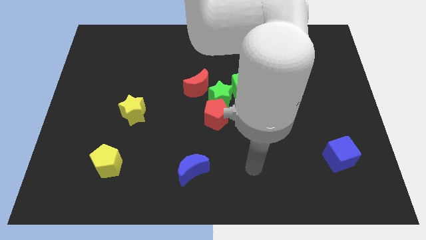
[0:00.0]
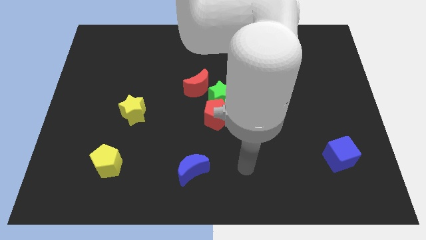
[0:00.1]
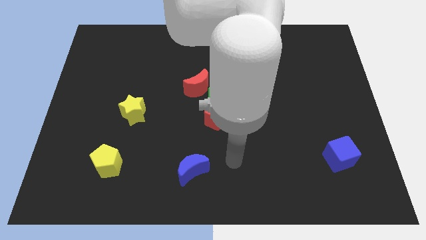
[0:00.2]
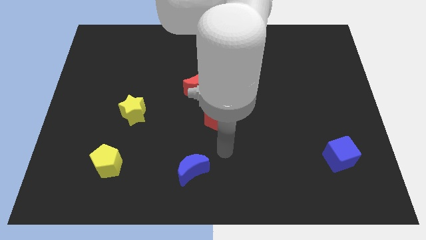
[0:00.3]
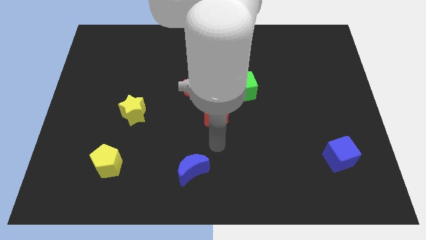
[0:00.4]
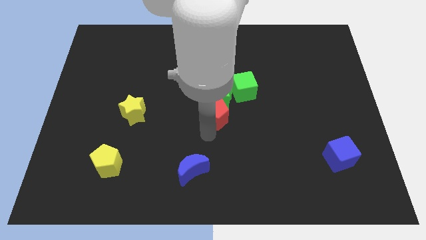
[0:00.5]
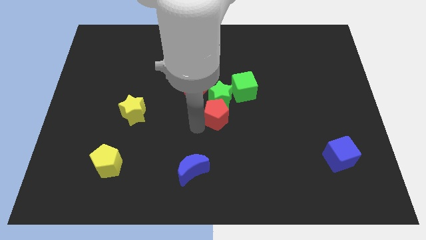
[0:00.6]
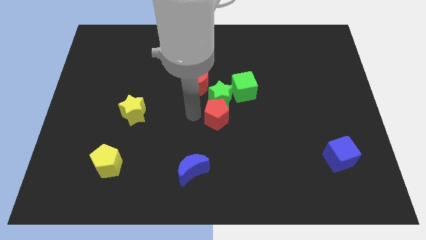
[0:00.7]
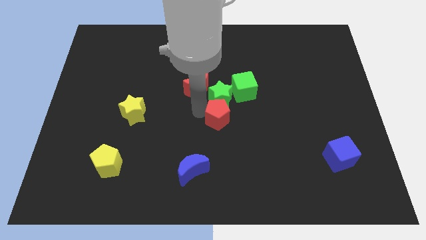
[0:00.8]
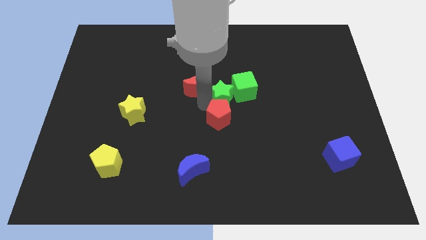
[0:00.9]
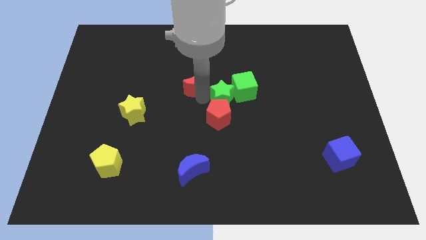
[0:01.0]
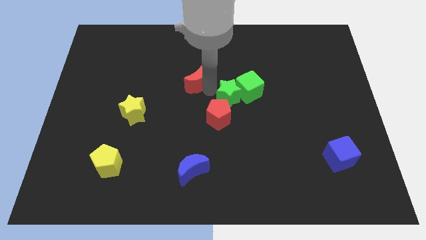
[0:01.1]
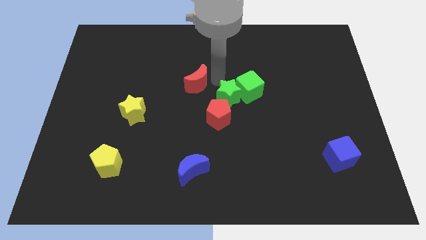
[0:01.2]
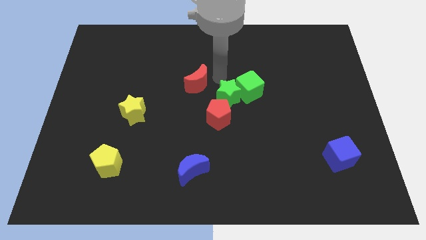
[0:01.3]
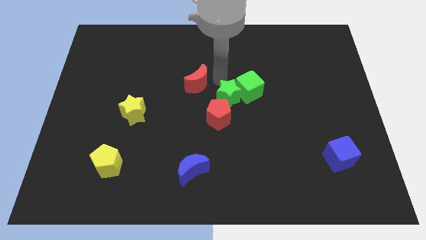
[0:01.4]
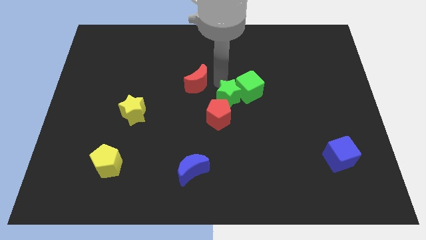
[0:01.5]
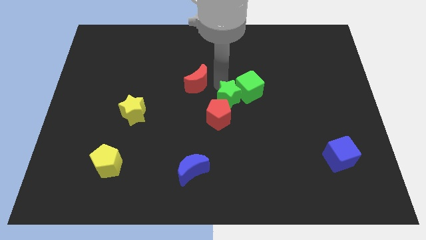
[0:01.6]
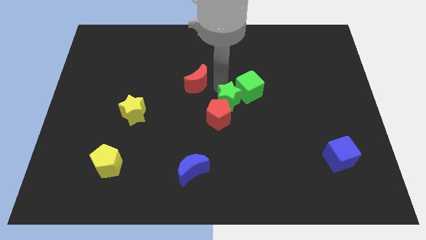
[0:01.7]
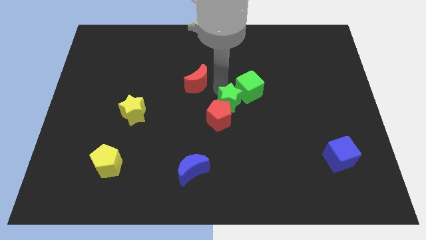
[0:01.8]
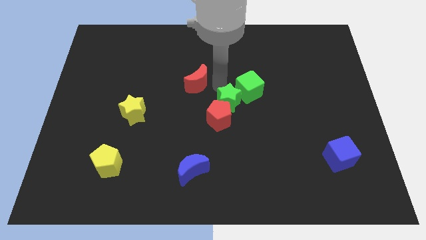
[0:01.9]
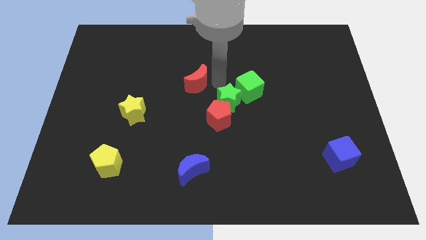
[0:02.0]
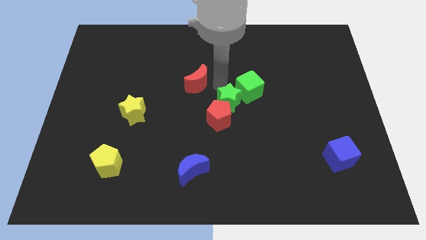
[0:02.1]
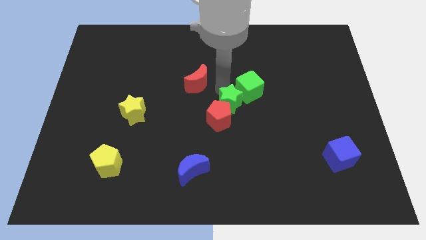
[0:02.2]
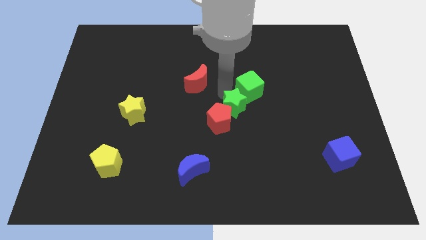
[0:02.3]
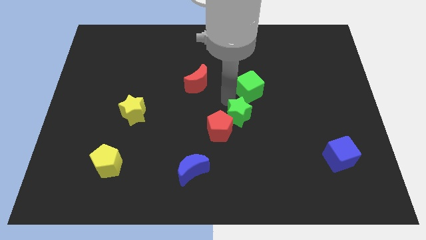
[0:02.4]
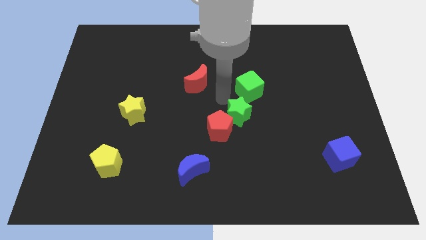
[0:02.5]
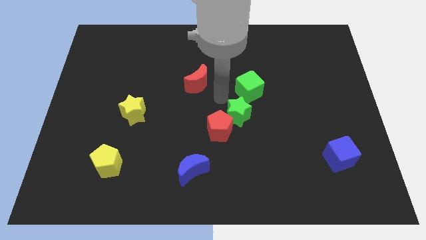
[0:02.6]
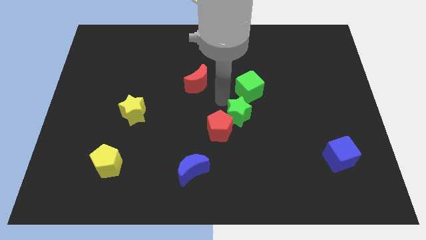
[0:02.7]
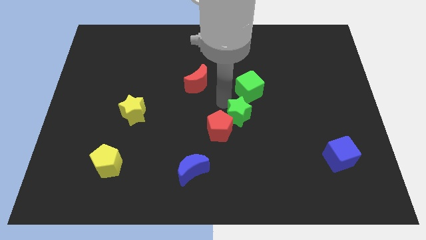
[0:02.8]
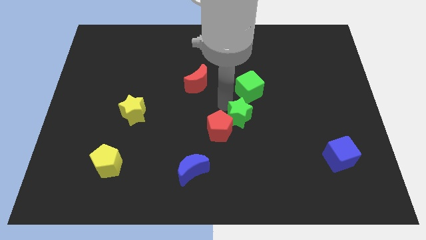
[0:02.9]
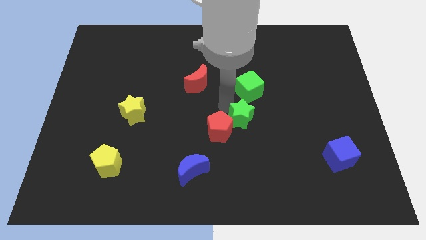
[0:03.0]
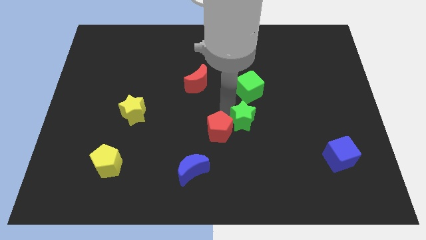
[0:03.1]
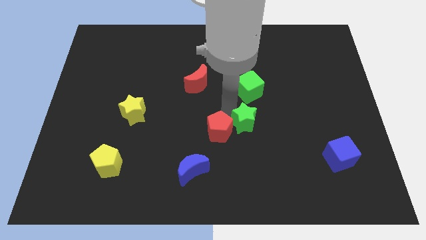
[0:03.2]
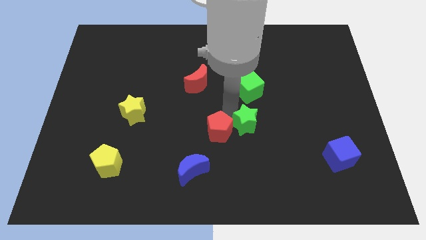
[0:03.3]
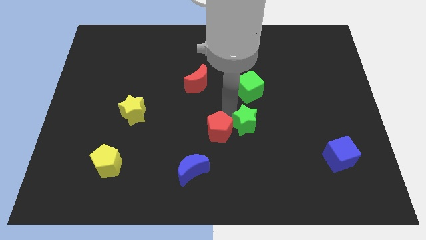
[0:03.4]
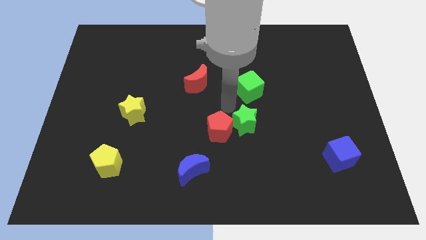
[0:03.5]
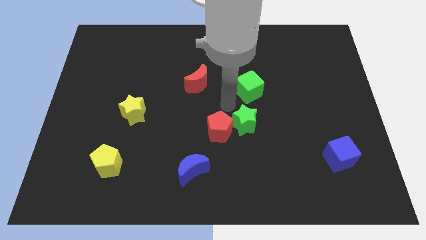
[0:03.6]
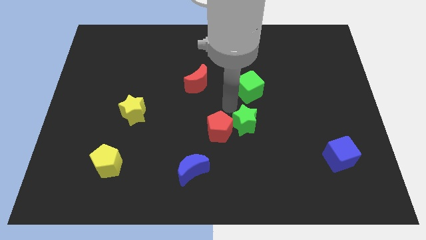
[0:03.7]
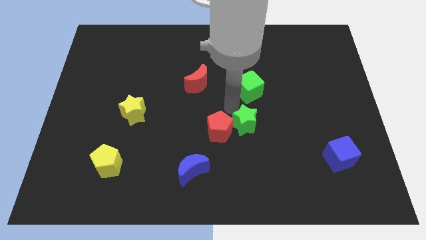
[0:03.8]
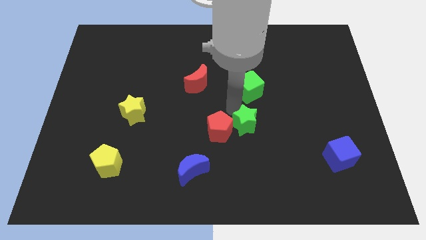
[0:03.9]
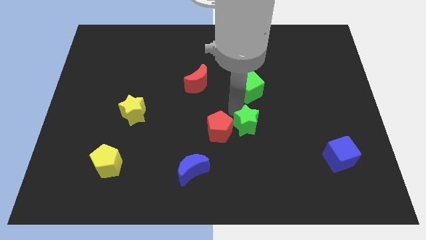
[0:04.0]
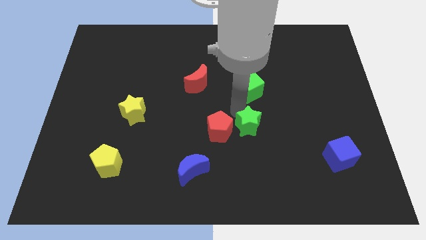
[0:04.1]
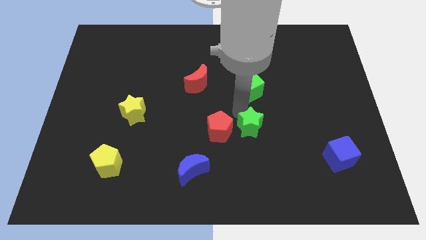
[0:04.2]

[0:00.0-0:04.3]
separate the green star from the red pentagon, green cube, and red moon

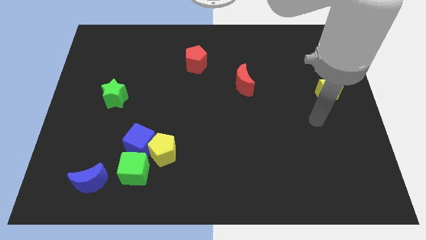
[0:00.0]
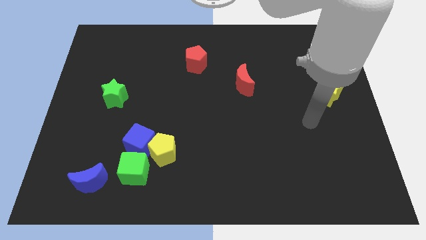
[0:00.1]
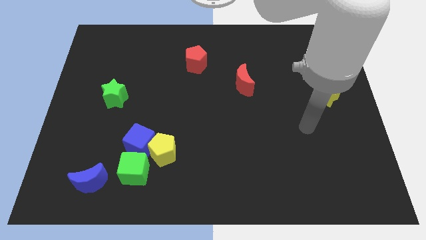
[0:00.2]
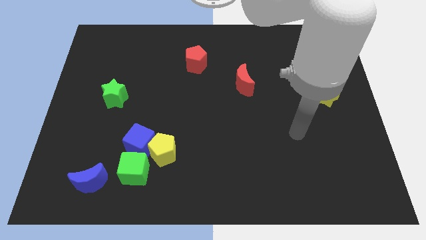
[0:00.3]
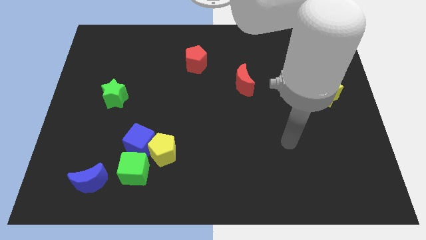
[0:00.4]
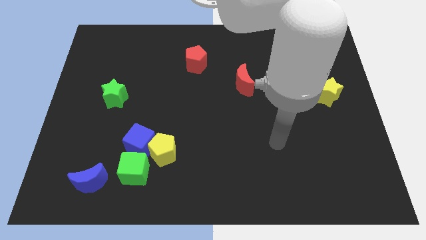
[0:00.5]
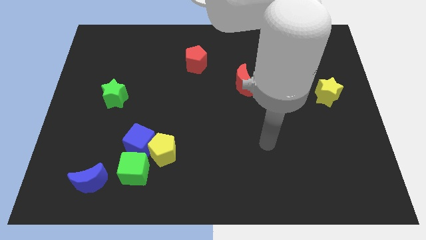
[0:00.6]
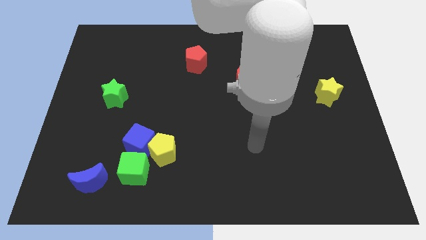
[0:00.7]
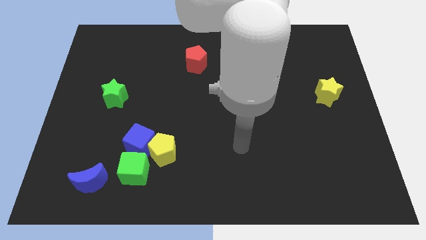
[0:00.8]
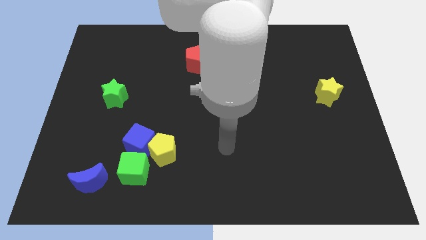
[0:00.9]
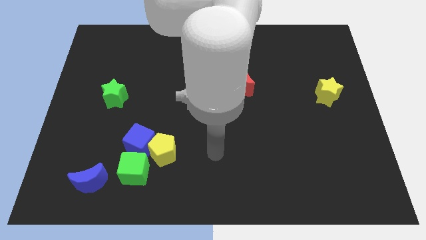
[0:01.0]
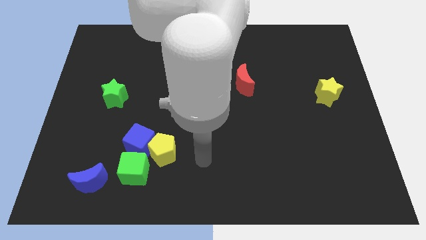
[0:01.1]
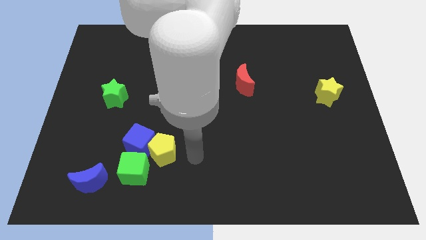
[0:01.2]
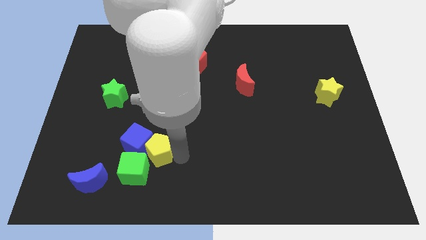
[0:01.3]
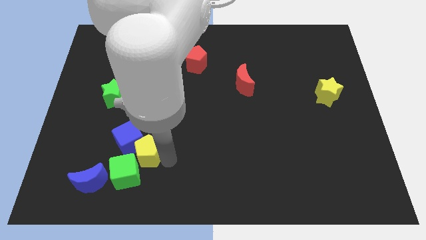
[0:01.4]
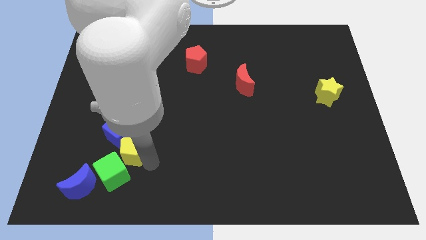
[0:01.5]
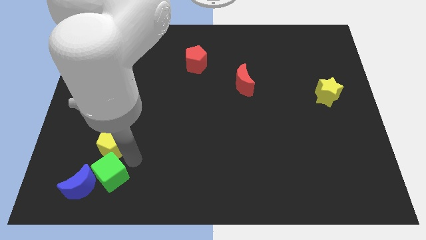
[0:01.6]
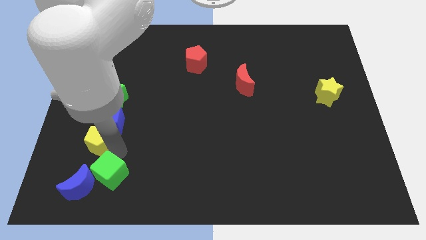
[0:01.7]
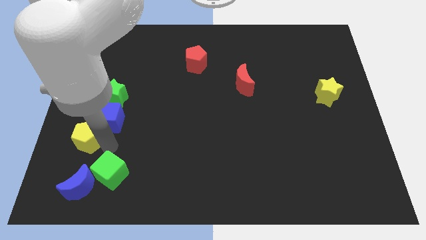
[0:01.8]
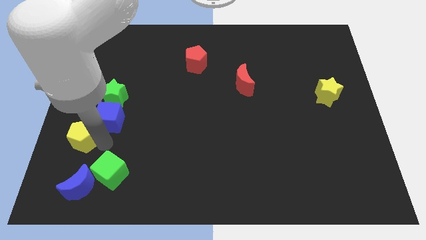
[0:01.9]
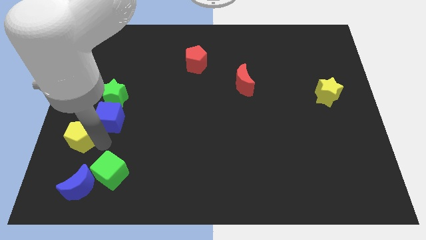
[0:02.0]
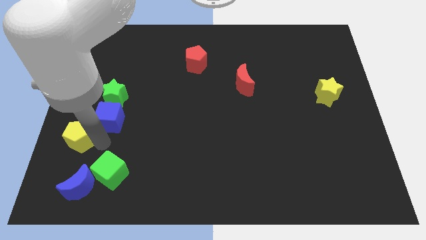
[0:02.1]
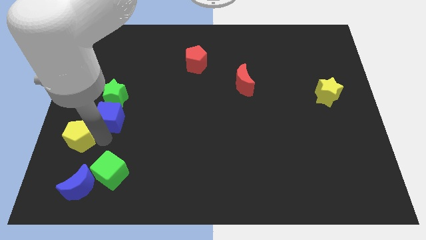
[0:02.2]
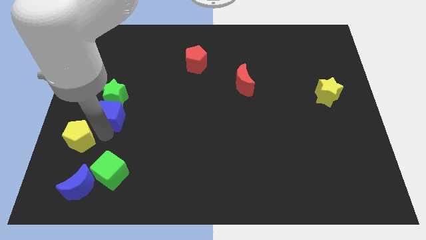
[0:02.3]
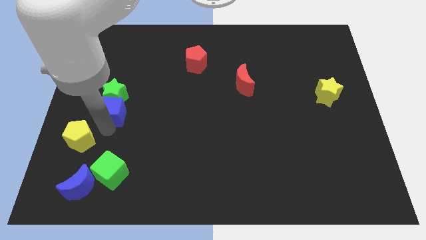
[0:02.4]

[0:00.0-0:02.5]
move the blue cube away from the yellow pentagon and green cube

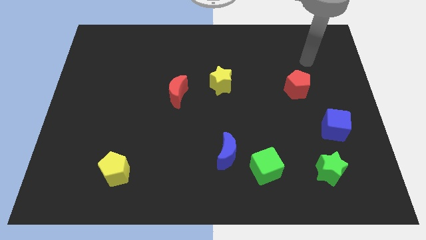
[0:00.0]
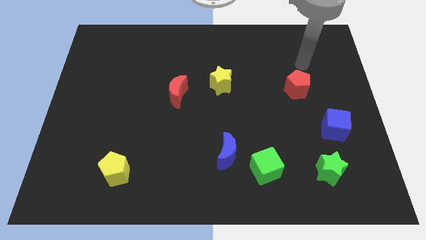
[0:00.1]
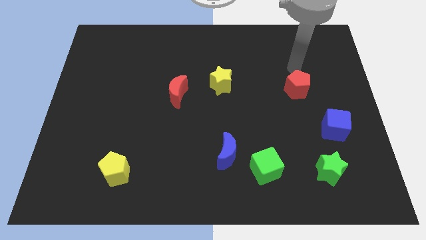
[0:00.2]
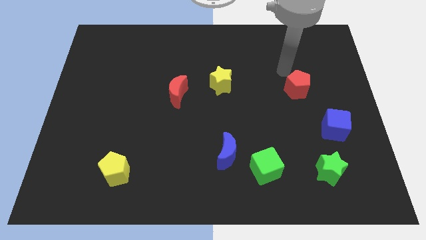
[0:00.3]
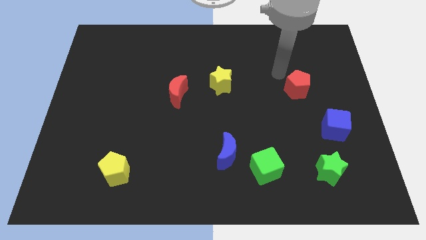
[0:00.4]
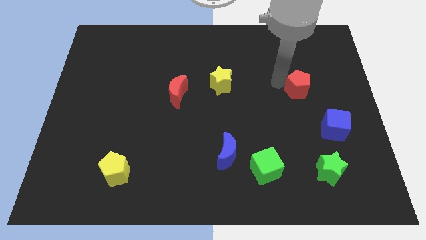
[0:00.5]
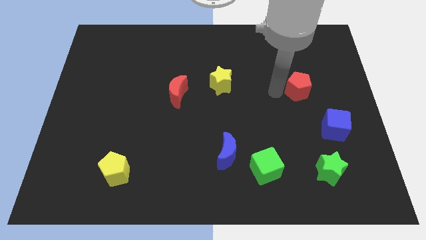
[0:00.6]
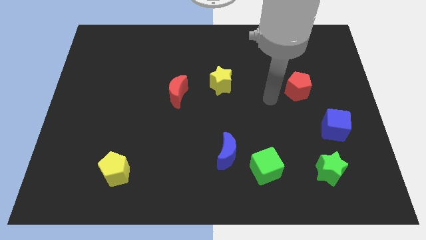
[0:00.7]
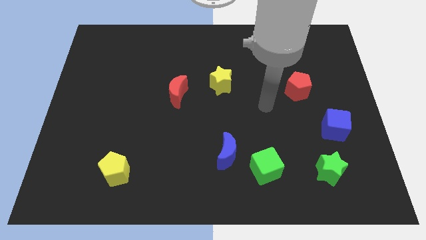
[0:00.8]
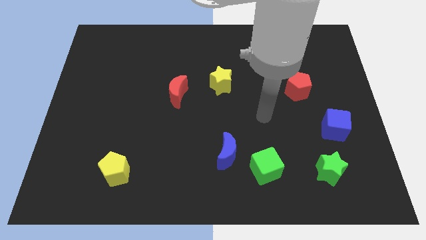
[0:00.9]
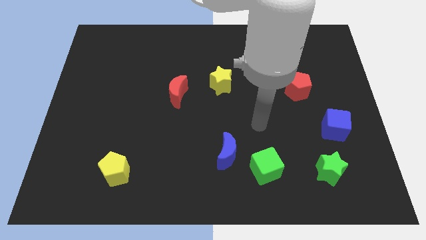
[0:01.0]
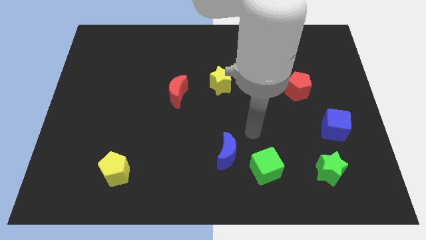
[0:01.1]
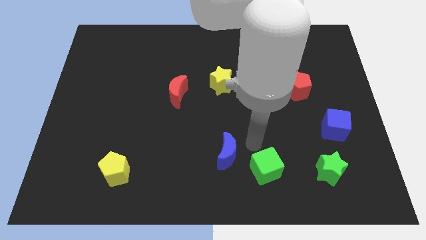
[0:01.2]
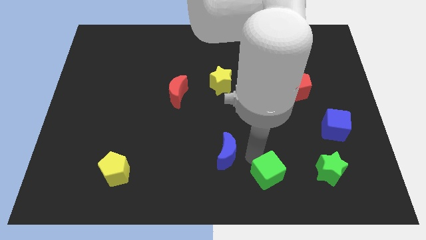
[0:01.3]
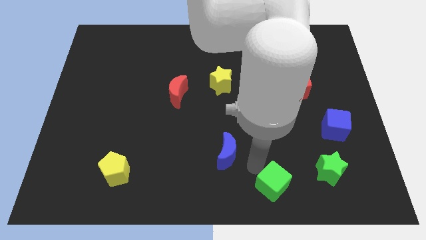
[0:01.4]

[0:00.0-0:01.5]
separate the blue moon from the green cube

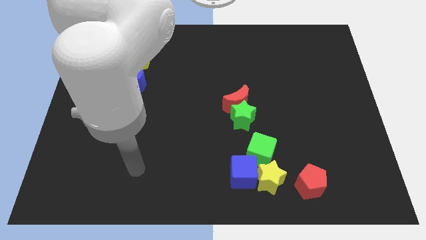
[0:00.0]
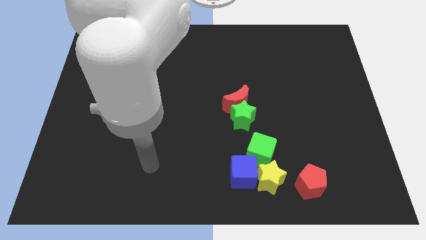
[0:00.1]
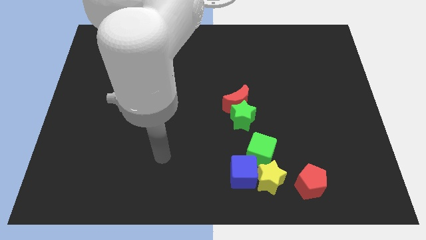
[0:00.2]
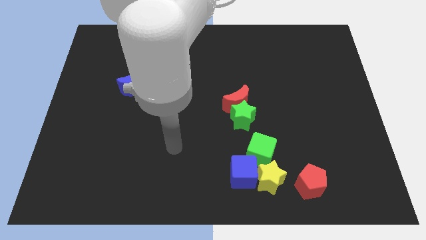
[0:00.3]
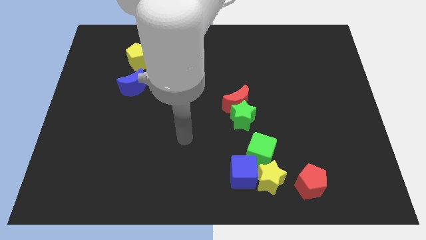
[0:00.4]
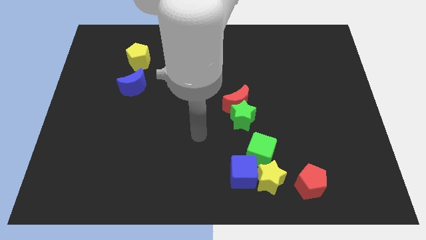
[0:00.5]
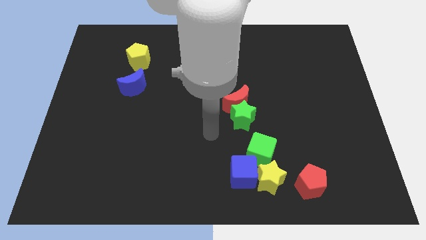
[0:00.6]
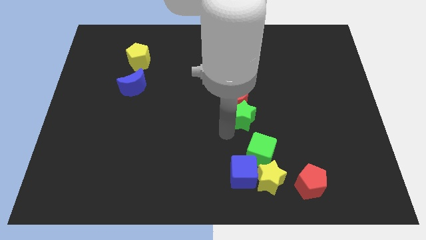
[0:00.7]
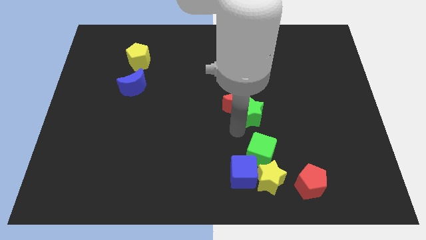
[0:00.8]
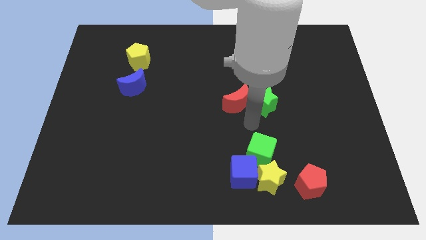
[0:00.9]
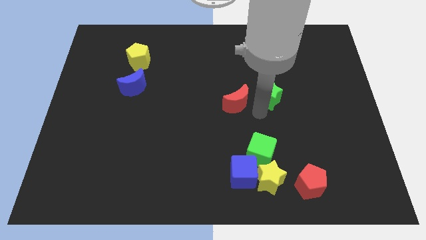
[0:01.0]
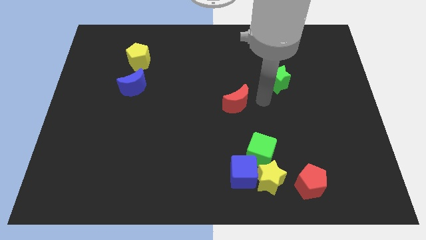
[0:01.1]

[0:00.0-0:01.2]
separate the red moon from the green star
